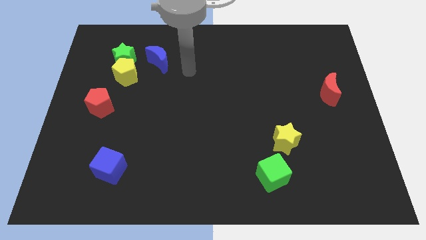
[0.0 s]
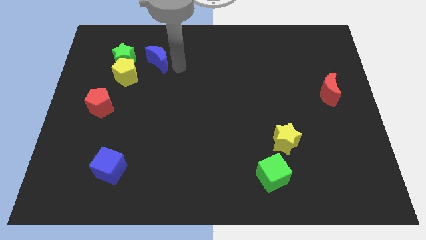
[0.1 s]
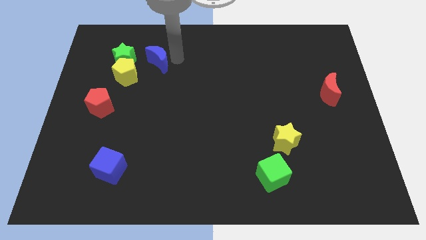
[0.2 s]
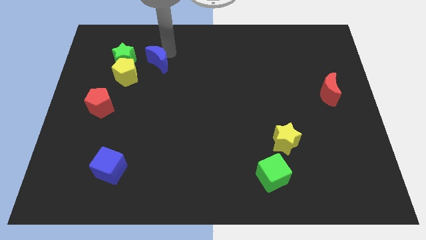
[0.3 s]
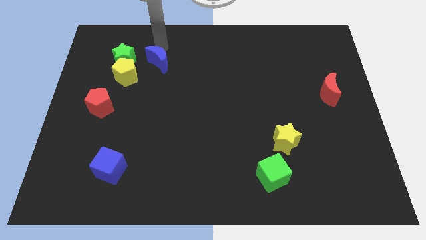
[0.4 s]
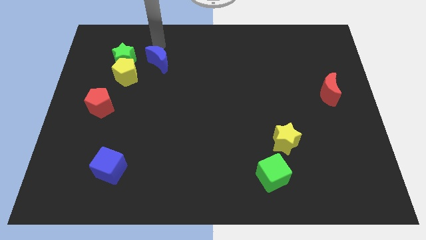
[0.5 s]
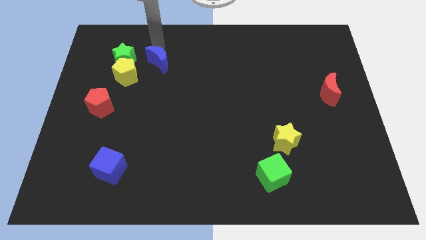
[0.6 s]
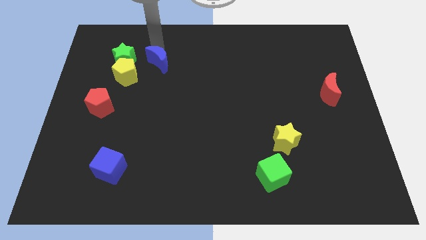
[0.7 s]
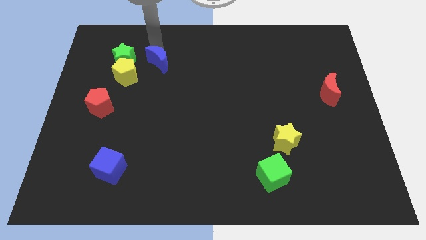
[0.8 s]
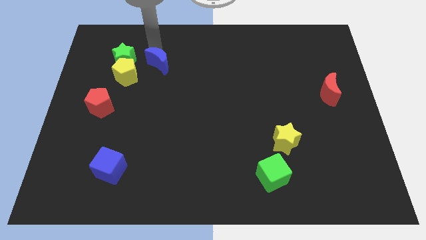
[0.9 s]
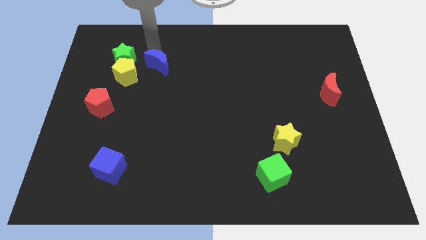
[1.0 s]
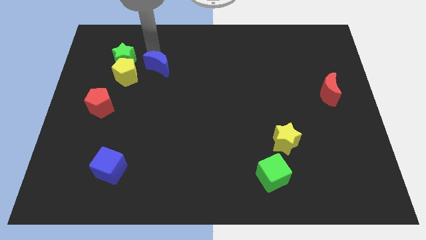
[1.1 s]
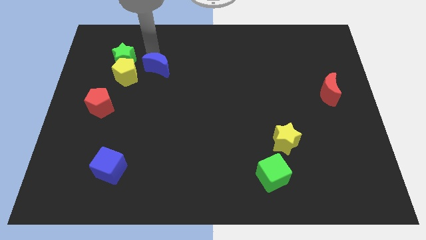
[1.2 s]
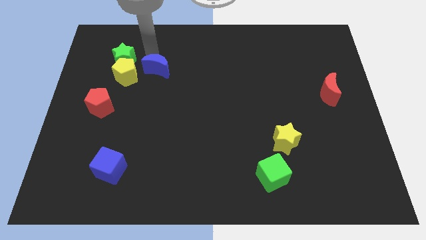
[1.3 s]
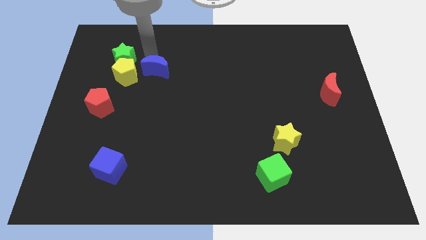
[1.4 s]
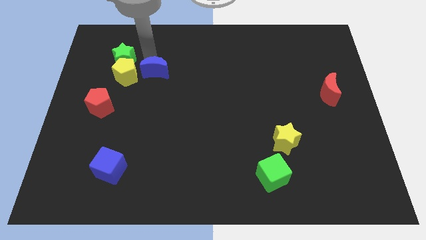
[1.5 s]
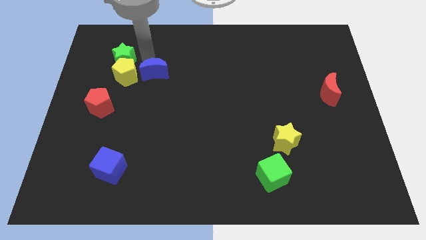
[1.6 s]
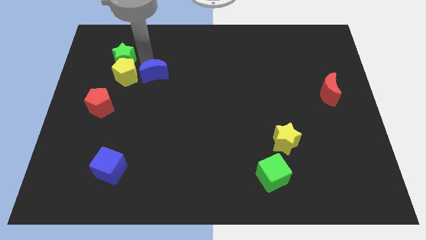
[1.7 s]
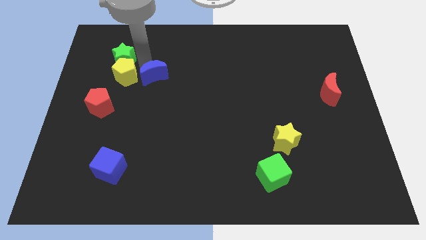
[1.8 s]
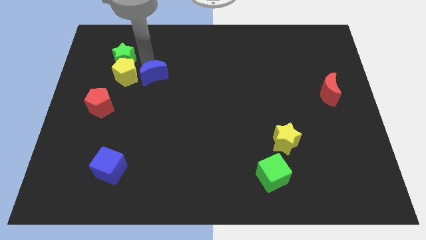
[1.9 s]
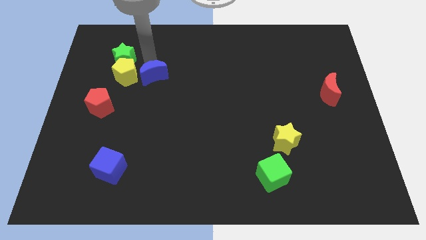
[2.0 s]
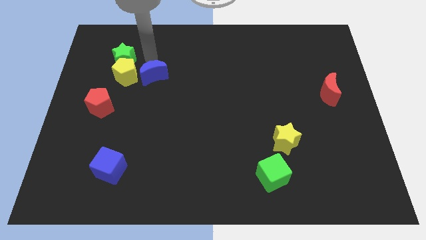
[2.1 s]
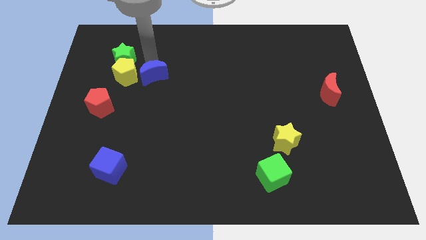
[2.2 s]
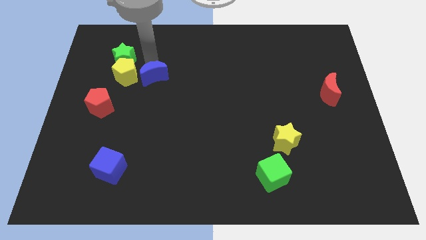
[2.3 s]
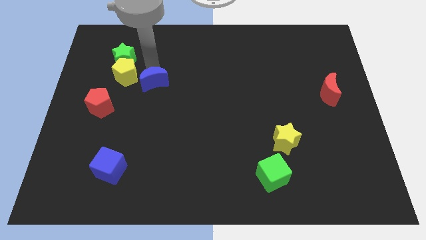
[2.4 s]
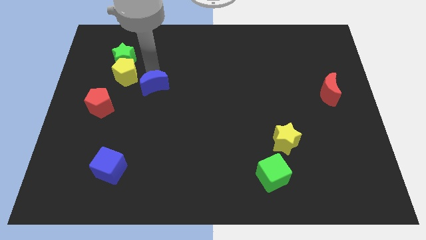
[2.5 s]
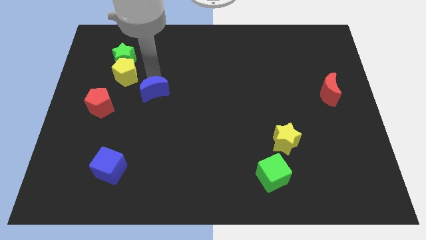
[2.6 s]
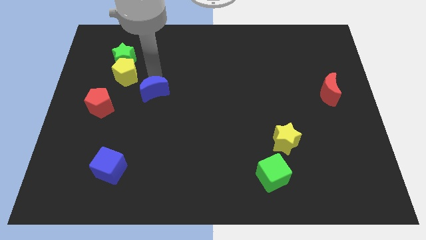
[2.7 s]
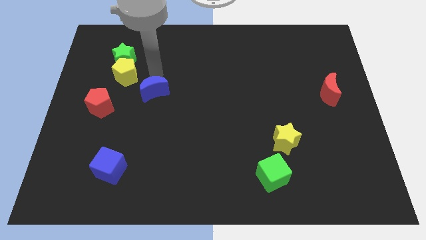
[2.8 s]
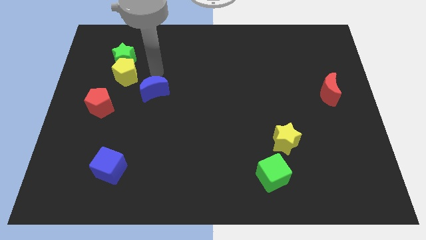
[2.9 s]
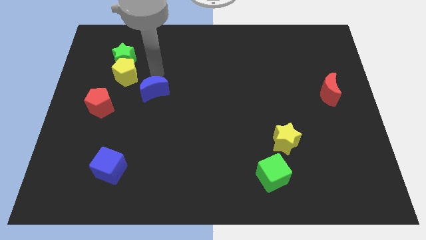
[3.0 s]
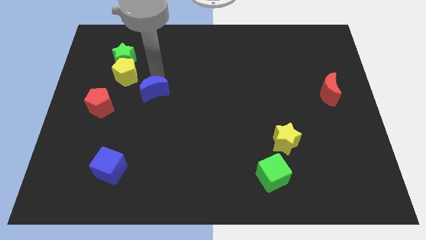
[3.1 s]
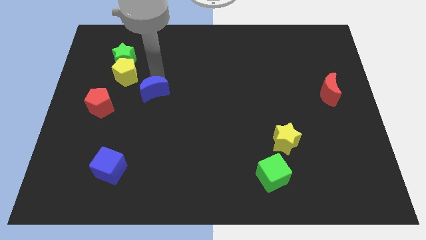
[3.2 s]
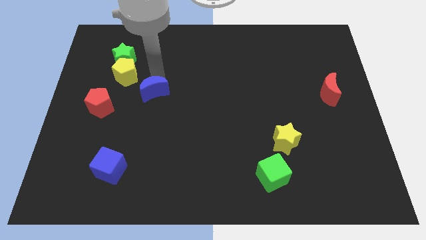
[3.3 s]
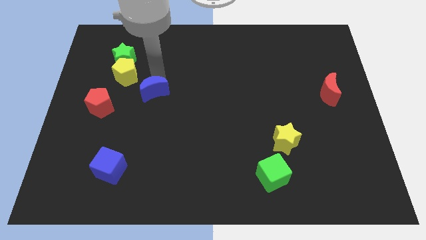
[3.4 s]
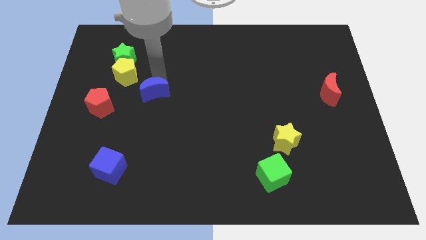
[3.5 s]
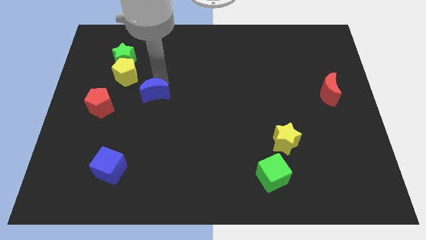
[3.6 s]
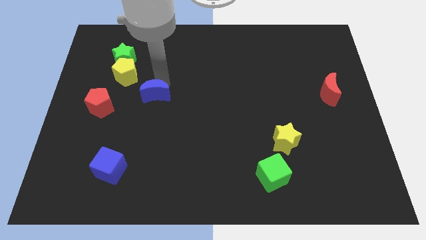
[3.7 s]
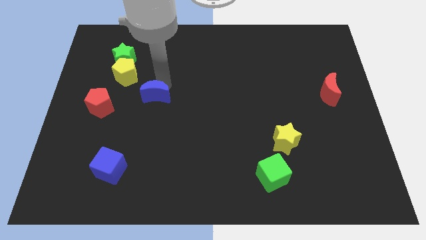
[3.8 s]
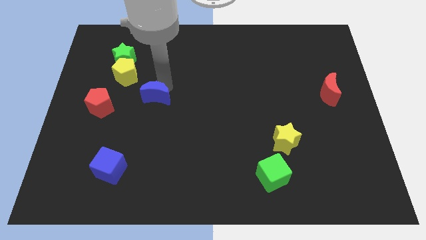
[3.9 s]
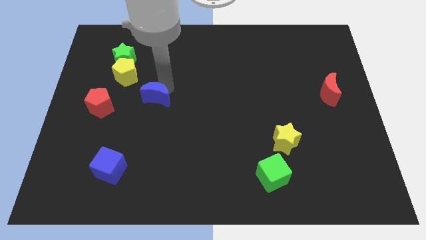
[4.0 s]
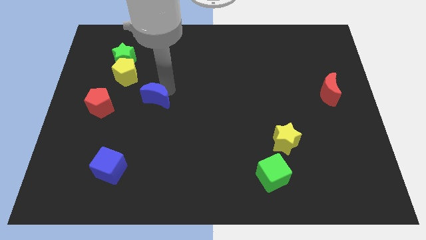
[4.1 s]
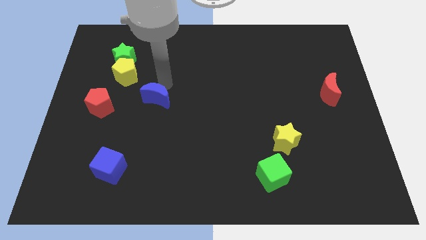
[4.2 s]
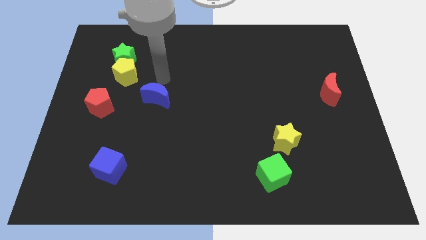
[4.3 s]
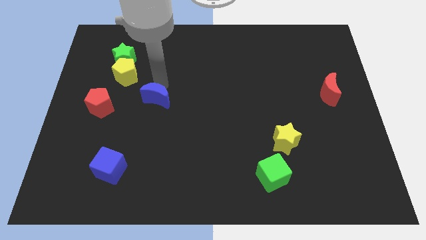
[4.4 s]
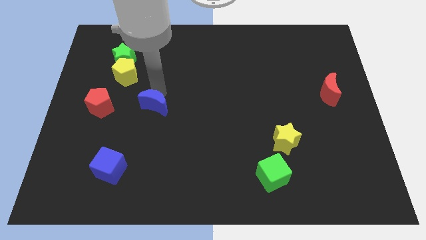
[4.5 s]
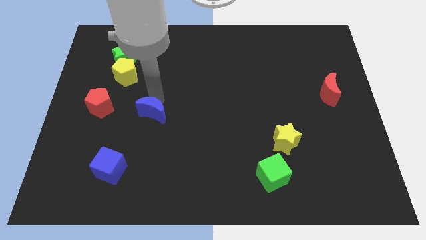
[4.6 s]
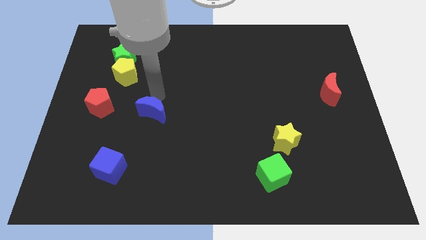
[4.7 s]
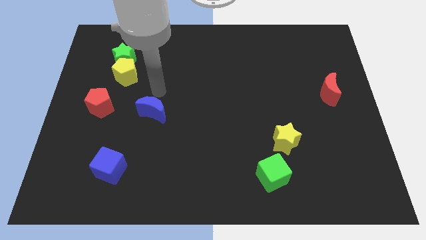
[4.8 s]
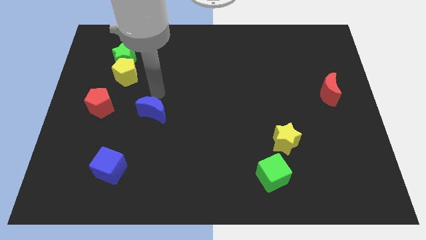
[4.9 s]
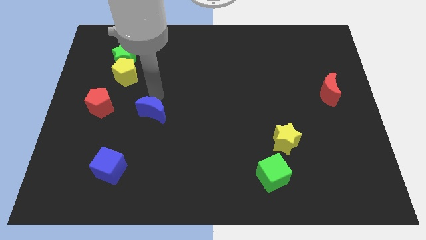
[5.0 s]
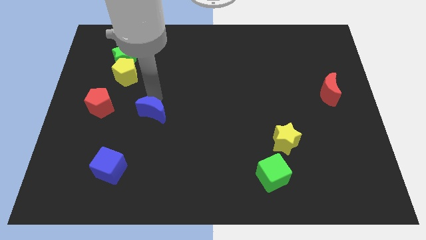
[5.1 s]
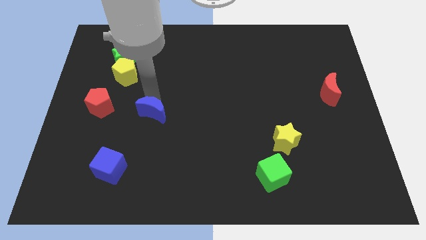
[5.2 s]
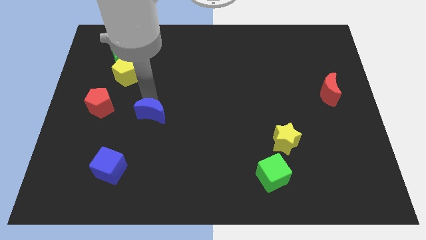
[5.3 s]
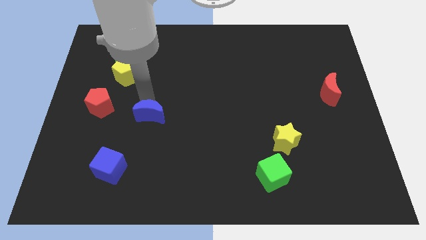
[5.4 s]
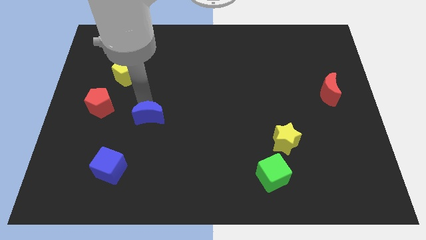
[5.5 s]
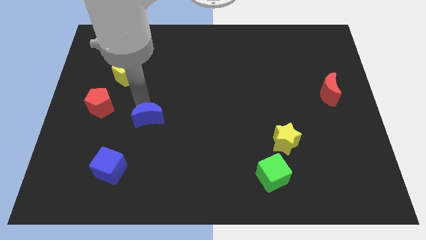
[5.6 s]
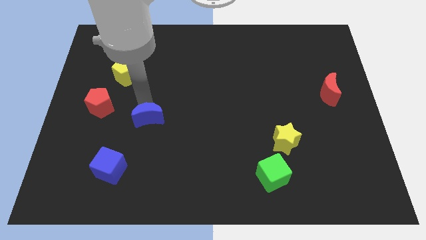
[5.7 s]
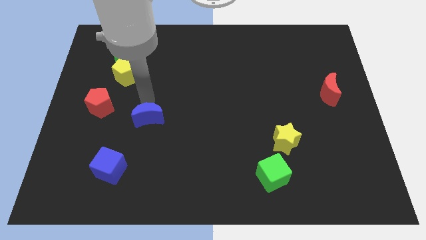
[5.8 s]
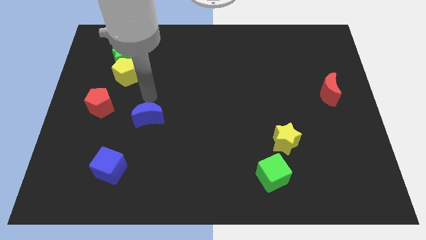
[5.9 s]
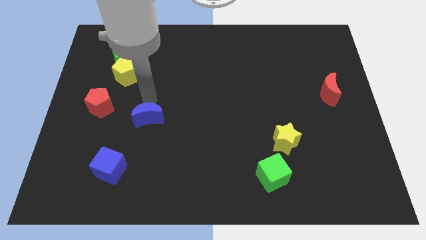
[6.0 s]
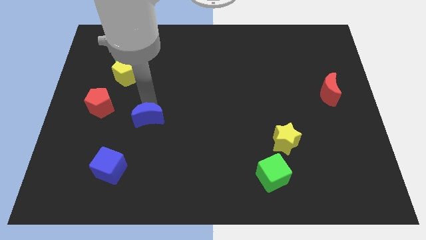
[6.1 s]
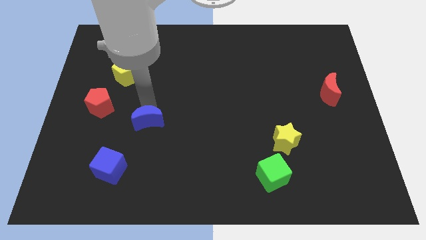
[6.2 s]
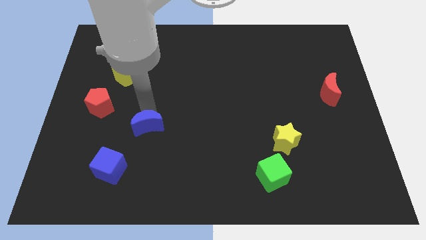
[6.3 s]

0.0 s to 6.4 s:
push the blue moon down

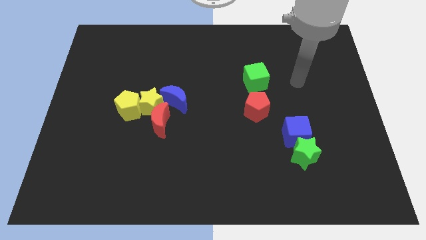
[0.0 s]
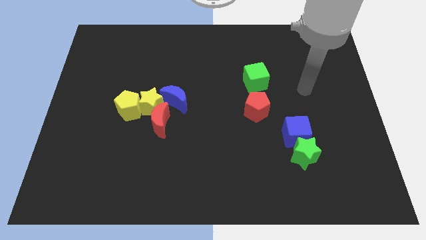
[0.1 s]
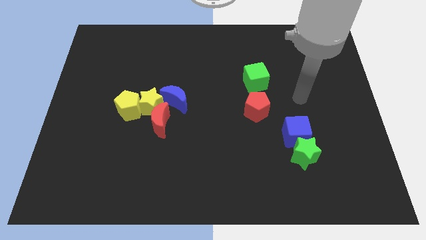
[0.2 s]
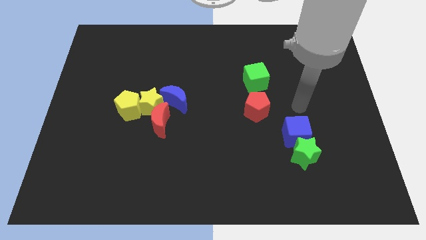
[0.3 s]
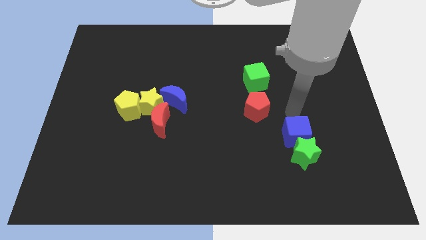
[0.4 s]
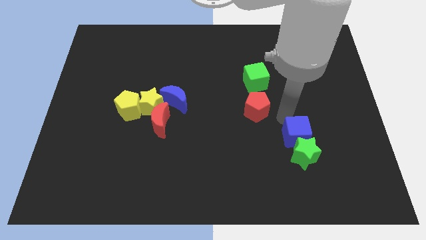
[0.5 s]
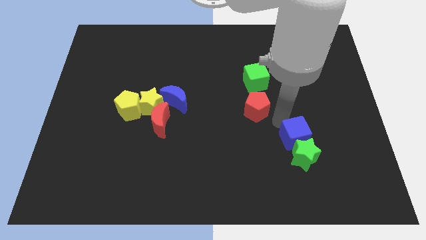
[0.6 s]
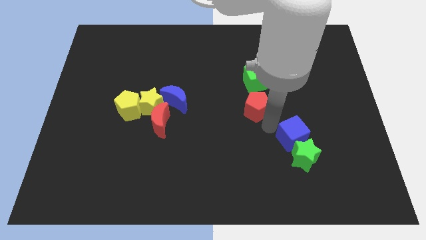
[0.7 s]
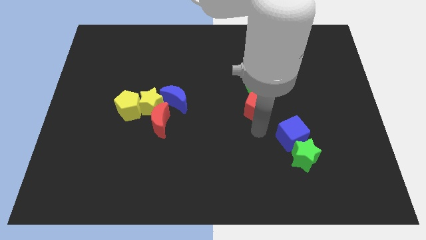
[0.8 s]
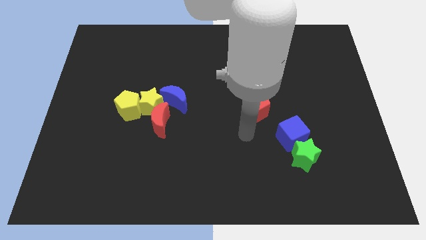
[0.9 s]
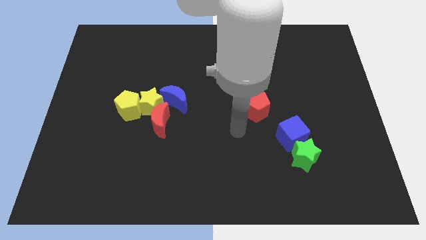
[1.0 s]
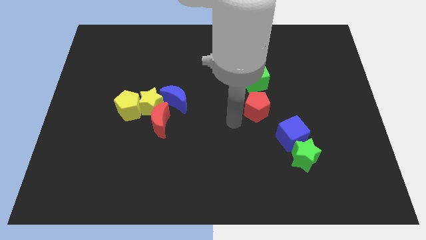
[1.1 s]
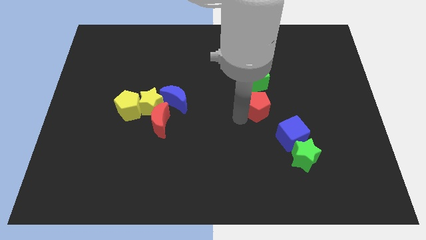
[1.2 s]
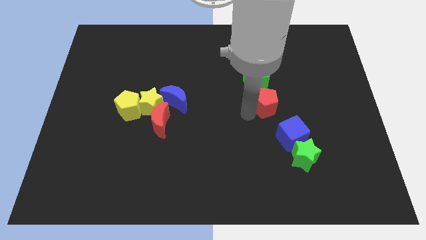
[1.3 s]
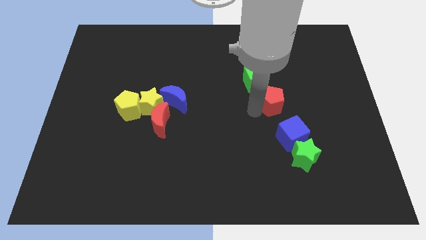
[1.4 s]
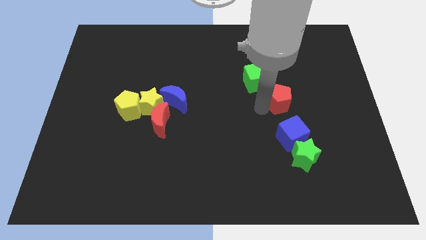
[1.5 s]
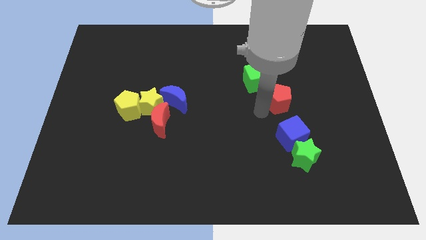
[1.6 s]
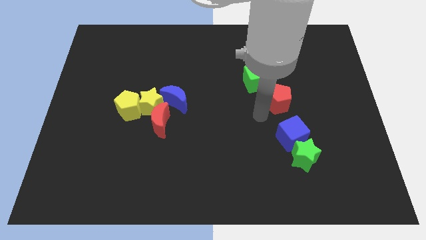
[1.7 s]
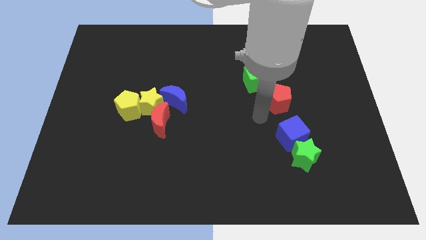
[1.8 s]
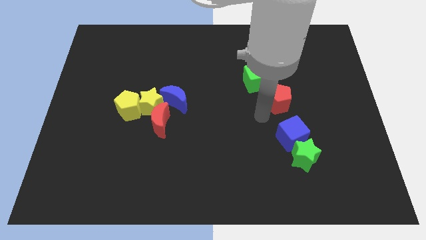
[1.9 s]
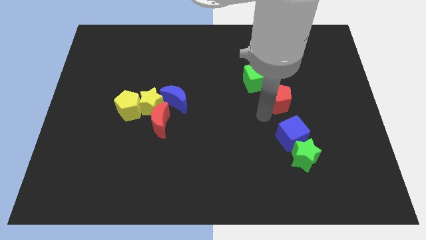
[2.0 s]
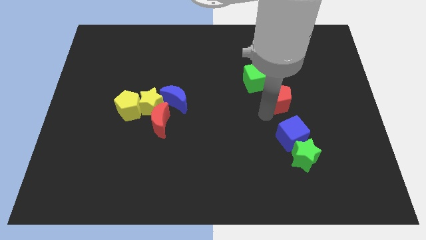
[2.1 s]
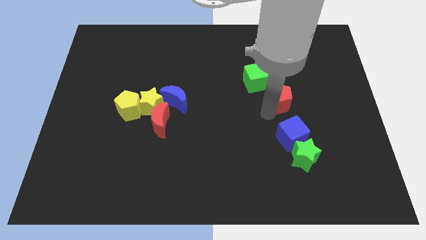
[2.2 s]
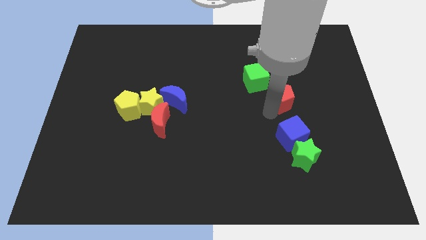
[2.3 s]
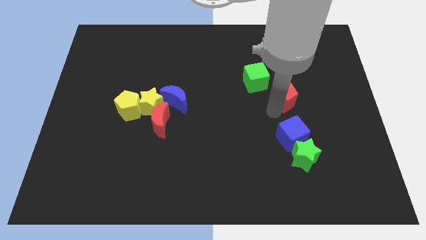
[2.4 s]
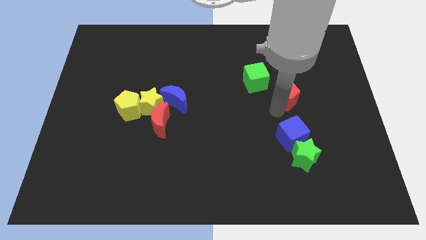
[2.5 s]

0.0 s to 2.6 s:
slide the red pentagon a little up and then right
